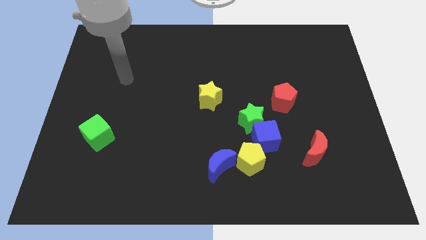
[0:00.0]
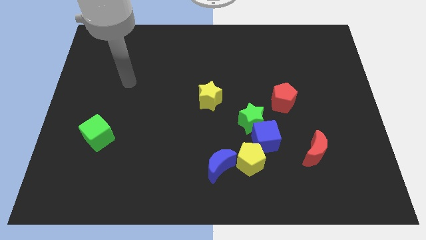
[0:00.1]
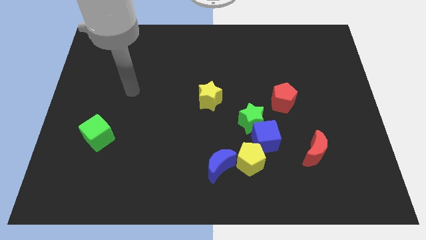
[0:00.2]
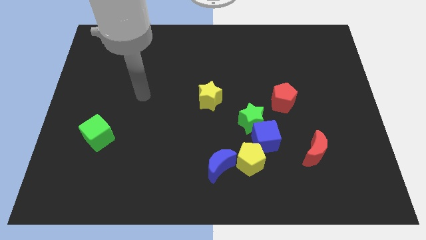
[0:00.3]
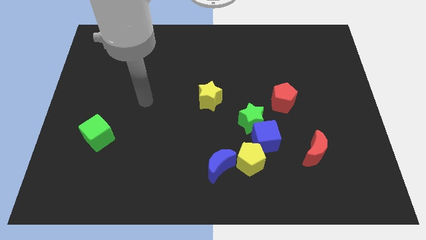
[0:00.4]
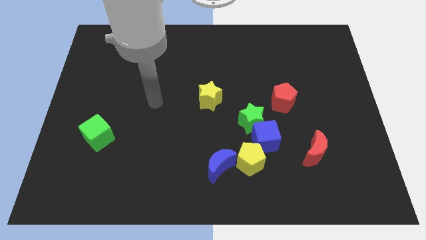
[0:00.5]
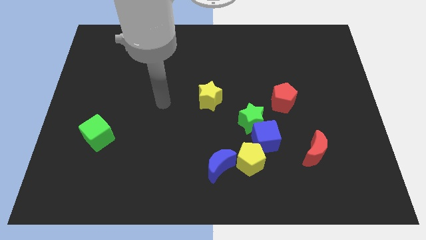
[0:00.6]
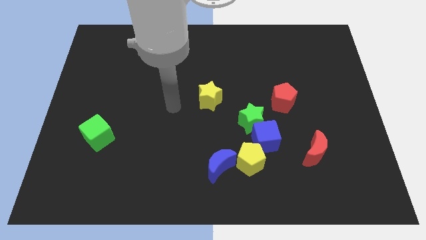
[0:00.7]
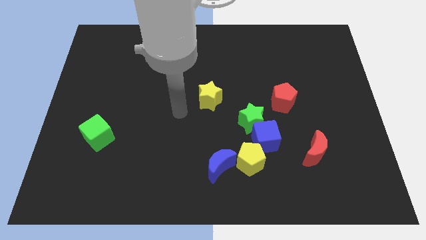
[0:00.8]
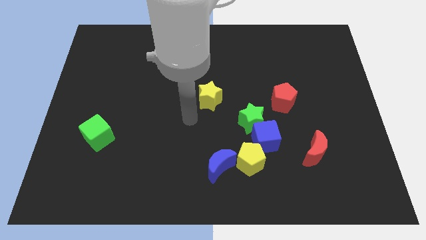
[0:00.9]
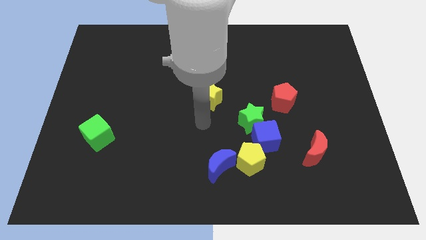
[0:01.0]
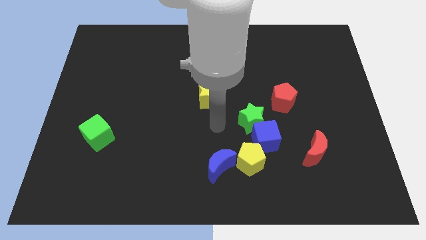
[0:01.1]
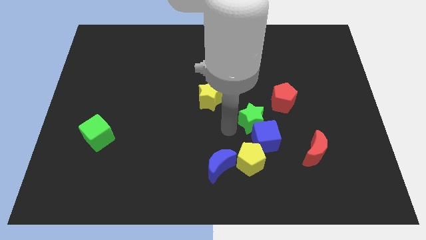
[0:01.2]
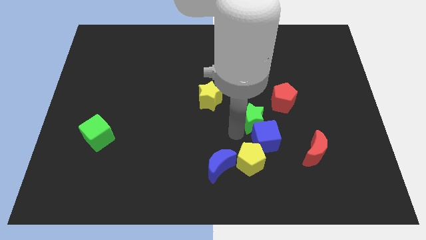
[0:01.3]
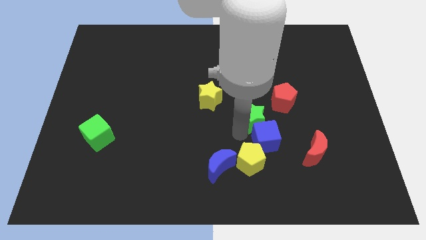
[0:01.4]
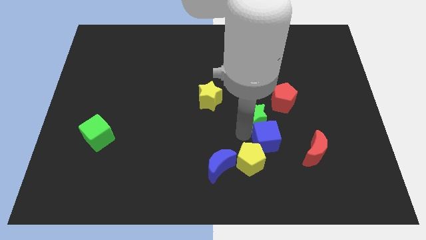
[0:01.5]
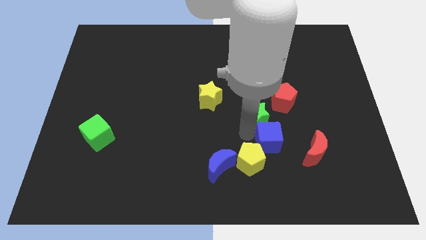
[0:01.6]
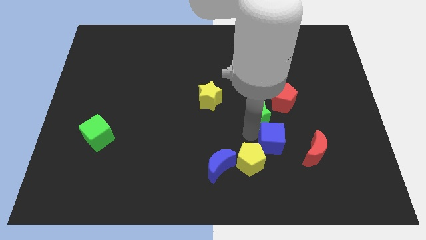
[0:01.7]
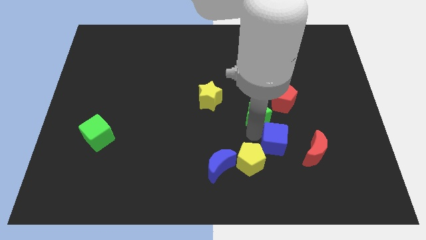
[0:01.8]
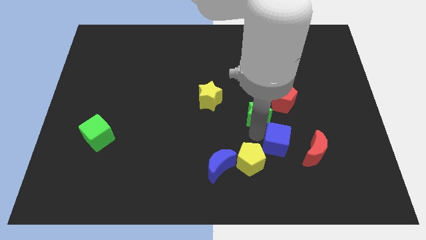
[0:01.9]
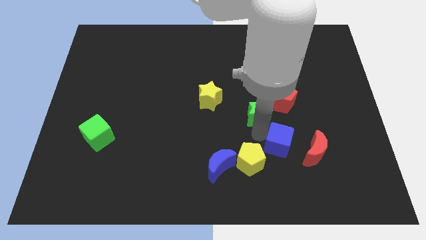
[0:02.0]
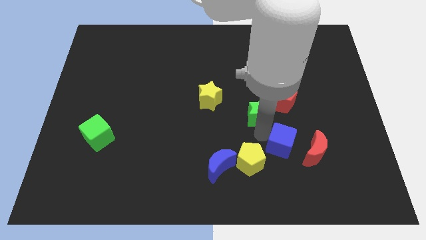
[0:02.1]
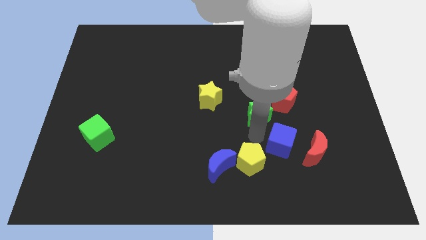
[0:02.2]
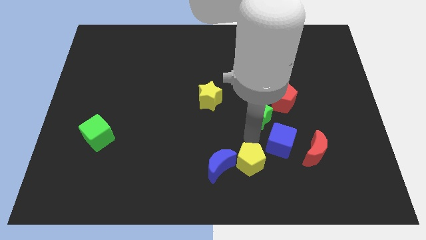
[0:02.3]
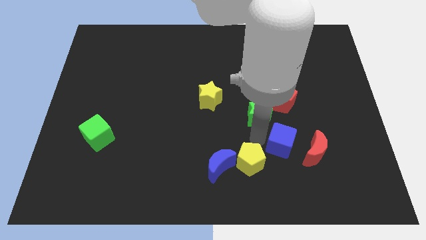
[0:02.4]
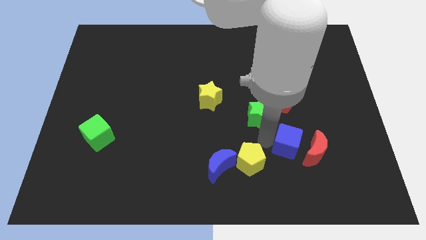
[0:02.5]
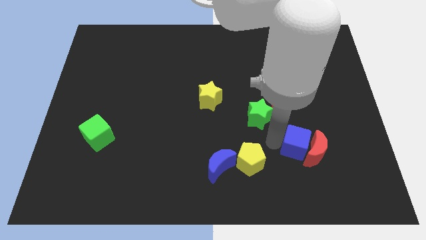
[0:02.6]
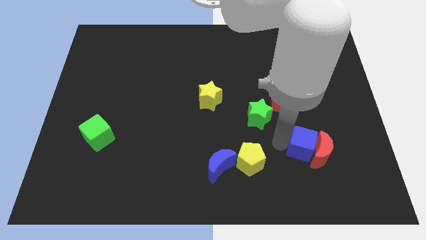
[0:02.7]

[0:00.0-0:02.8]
pull the blue cube apart from the green star and yellow pentagon

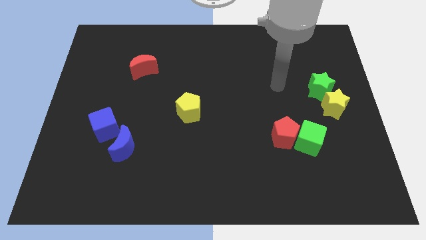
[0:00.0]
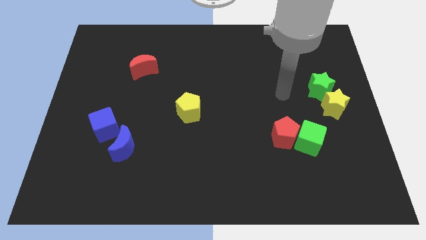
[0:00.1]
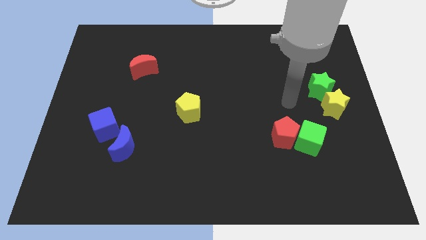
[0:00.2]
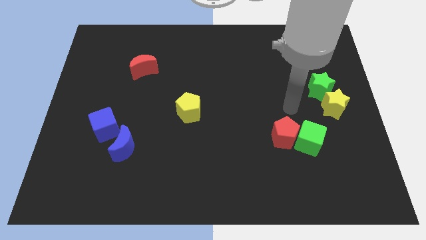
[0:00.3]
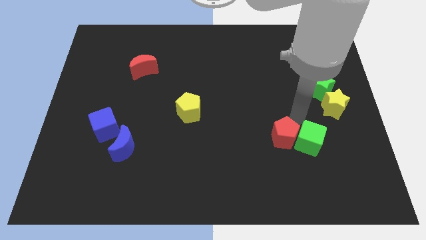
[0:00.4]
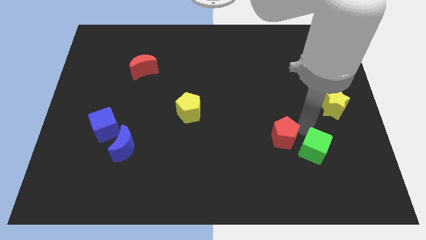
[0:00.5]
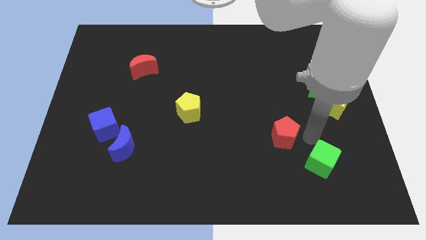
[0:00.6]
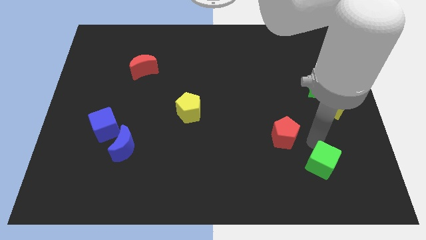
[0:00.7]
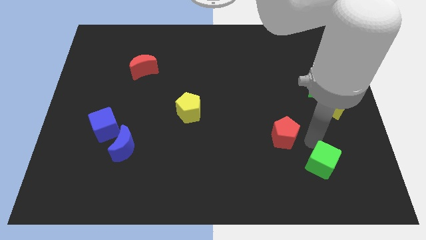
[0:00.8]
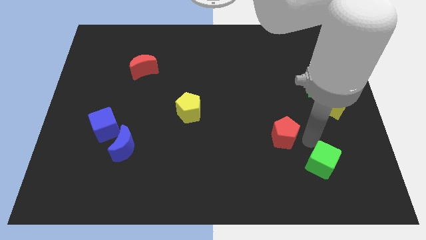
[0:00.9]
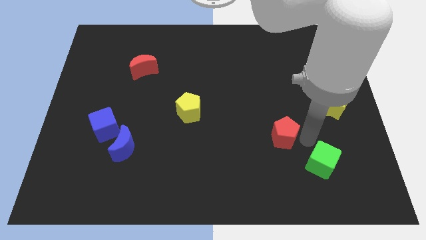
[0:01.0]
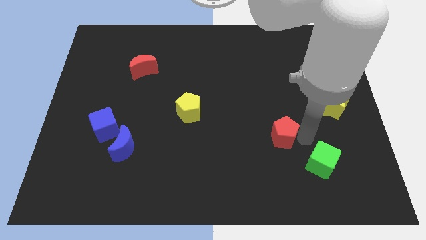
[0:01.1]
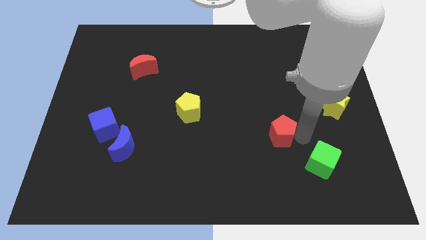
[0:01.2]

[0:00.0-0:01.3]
pull the red pentagon apart from the green cube

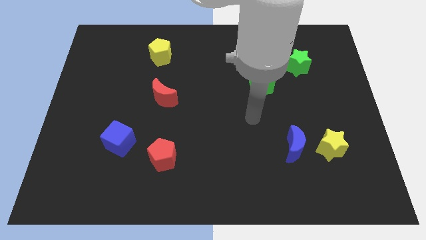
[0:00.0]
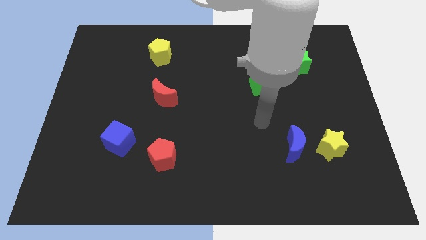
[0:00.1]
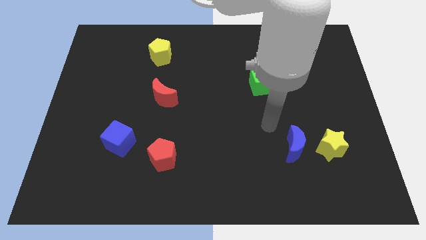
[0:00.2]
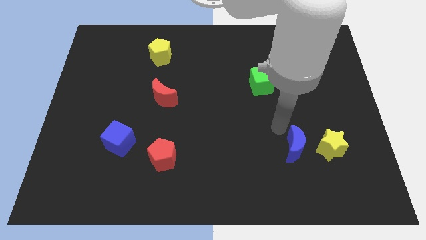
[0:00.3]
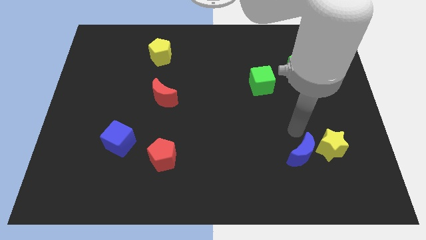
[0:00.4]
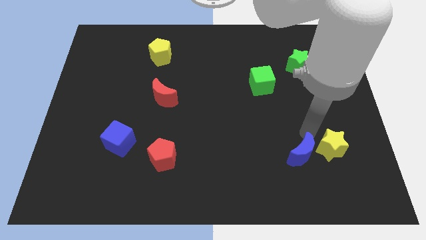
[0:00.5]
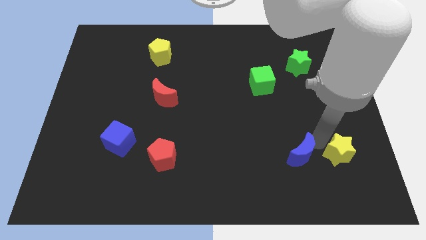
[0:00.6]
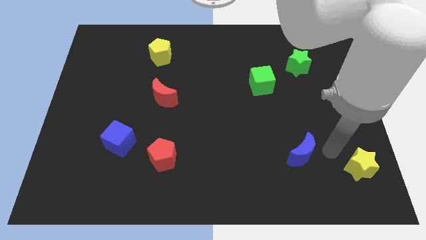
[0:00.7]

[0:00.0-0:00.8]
pull the blue moon apart from the yellow star

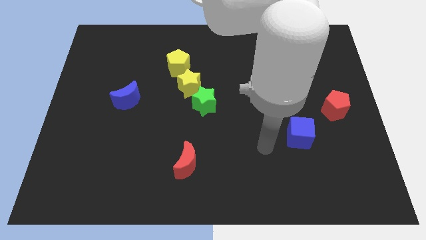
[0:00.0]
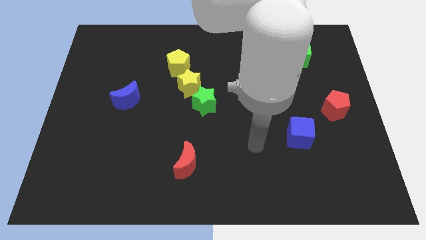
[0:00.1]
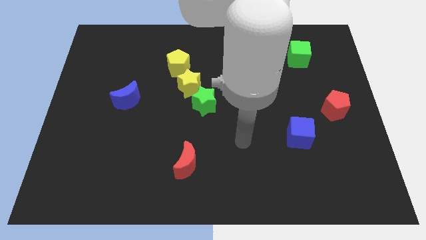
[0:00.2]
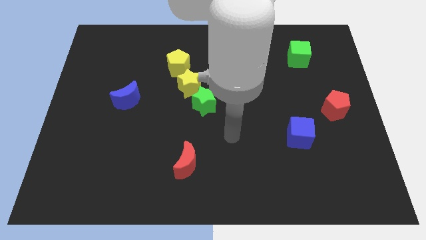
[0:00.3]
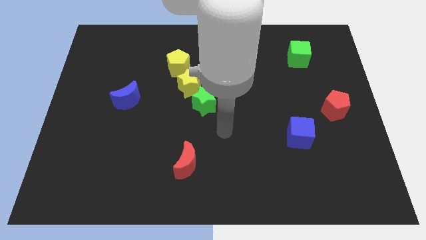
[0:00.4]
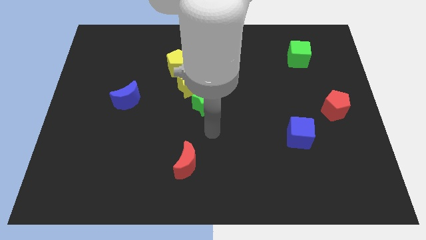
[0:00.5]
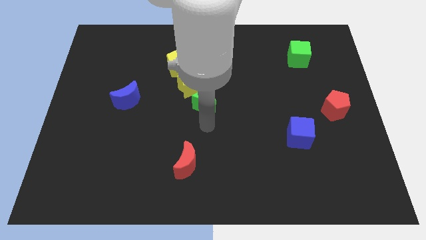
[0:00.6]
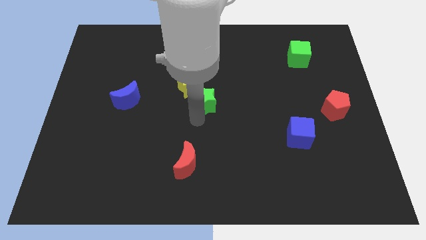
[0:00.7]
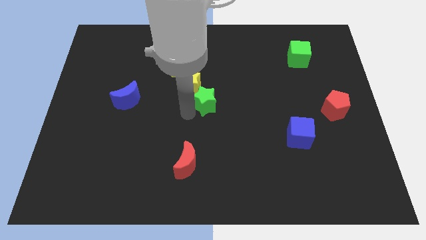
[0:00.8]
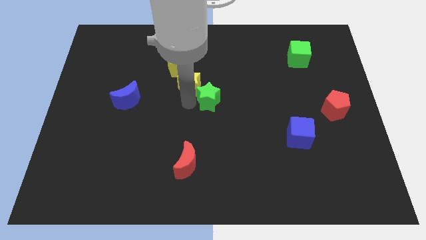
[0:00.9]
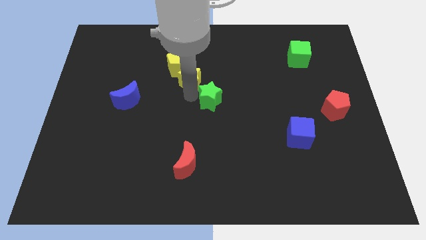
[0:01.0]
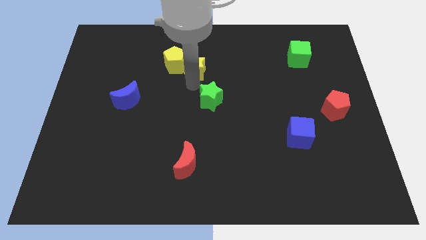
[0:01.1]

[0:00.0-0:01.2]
move the green star away from the yellow star

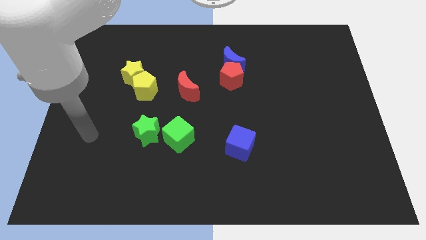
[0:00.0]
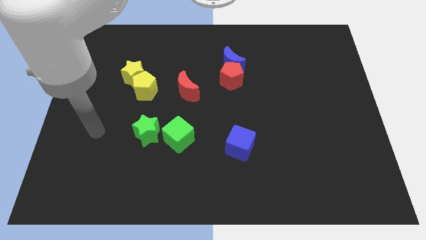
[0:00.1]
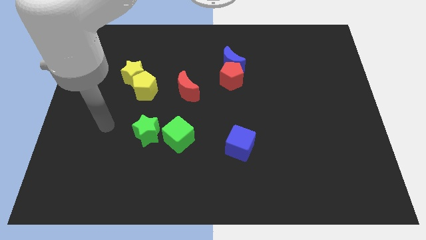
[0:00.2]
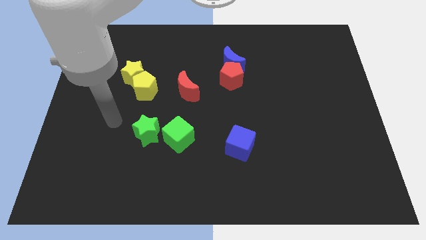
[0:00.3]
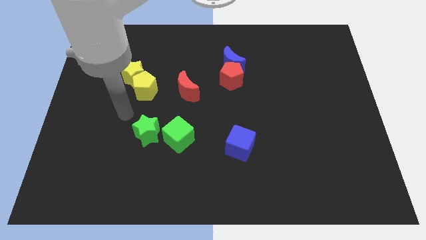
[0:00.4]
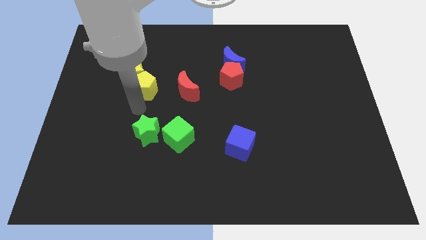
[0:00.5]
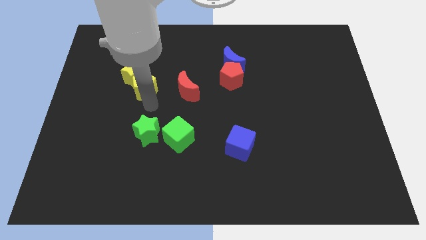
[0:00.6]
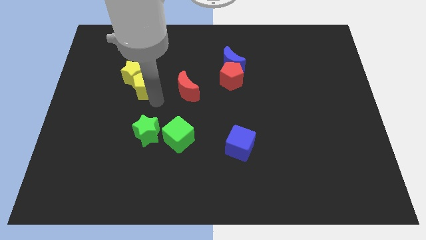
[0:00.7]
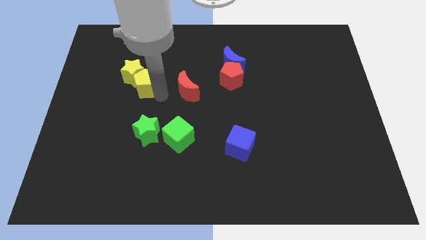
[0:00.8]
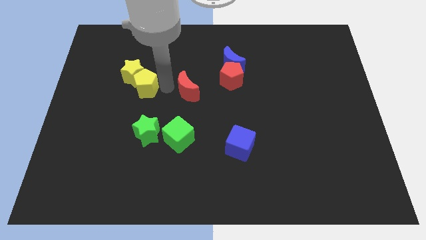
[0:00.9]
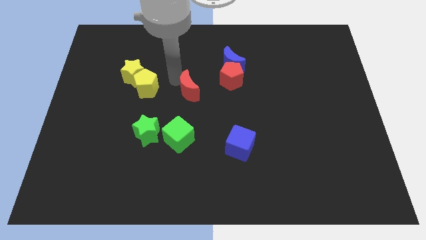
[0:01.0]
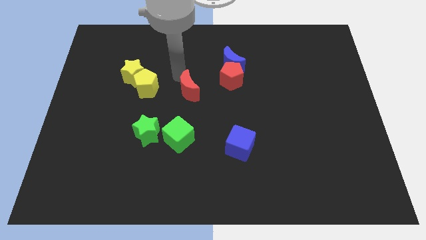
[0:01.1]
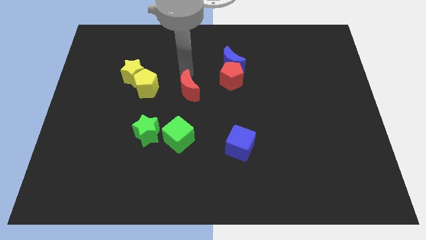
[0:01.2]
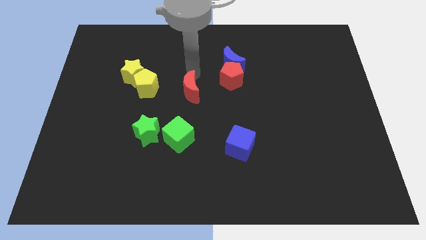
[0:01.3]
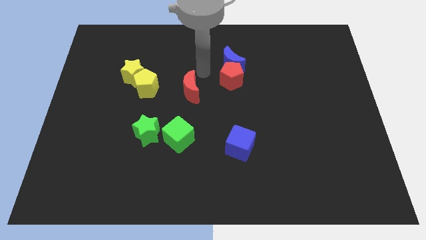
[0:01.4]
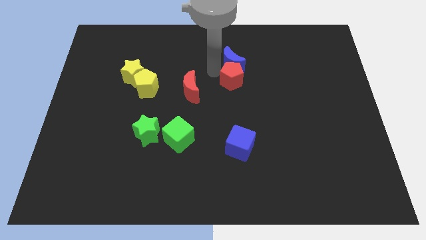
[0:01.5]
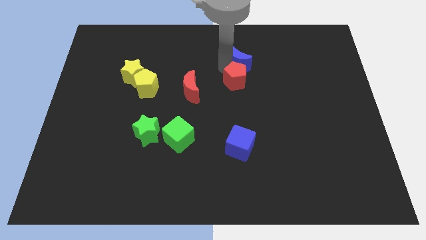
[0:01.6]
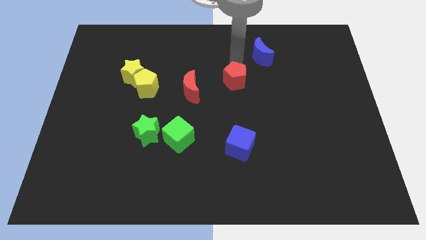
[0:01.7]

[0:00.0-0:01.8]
move the red pentagon away from the blue moon

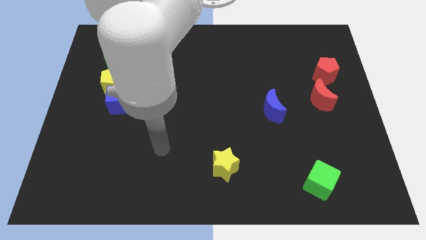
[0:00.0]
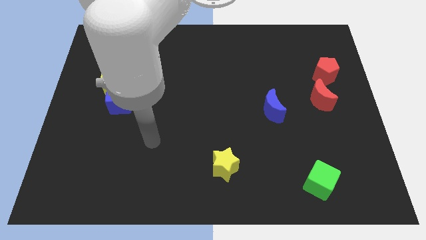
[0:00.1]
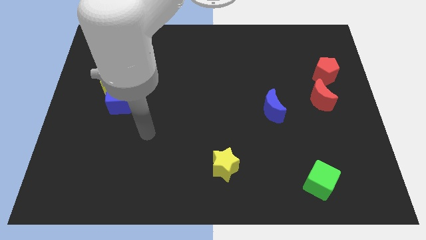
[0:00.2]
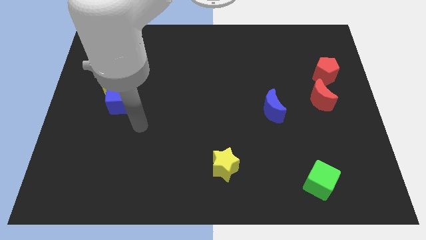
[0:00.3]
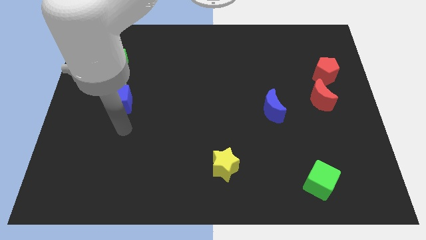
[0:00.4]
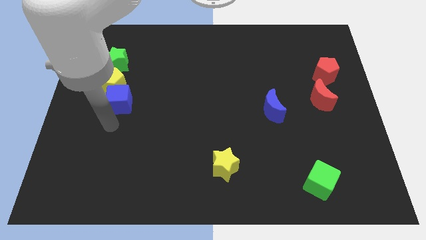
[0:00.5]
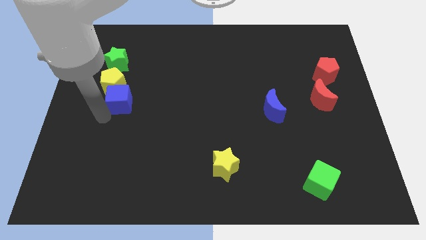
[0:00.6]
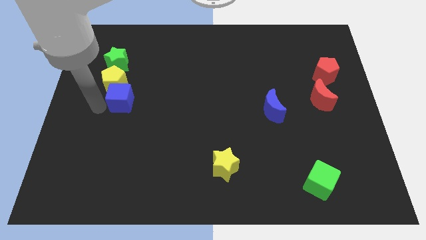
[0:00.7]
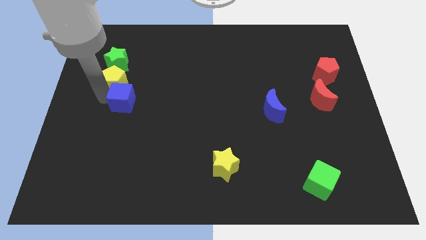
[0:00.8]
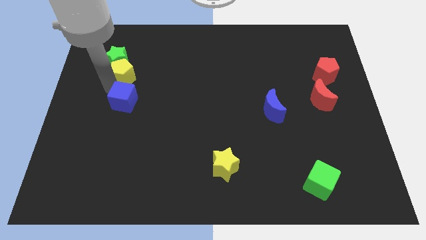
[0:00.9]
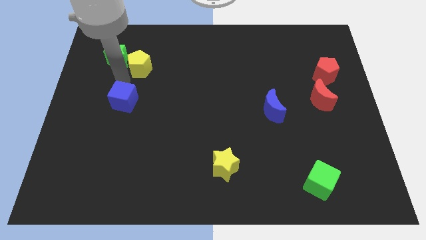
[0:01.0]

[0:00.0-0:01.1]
pull the blue cube apart from the yellow pentagon

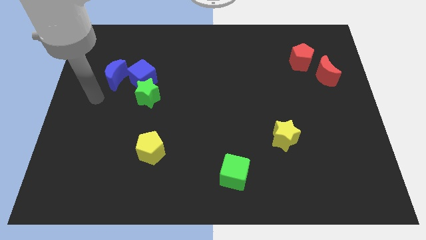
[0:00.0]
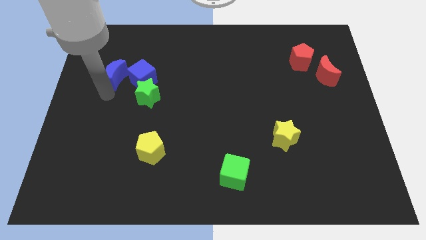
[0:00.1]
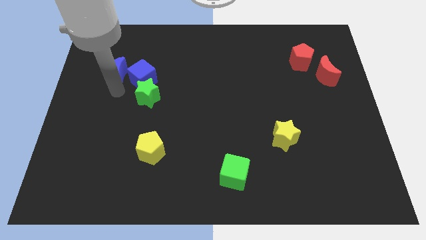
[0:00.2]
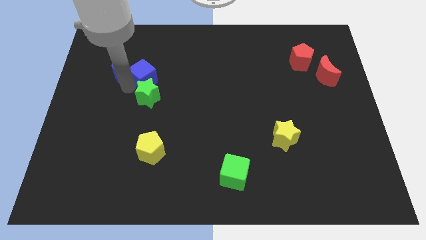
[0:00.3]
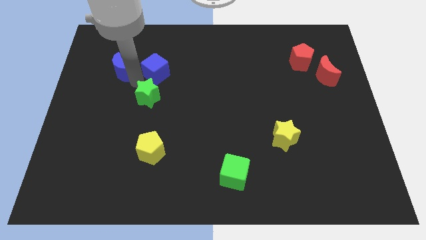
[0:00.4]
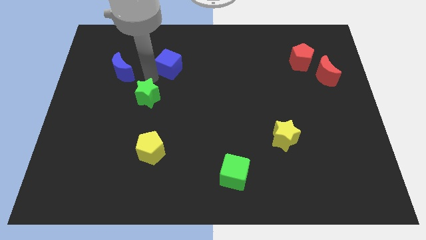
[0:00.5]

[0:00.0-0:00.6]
move the green star away from the blue cube
